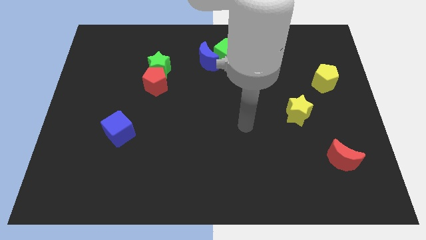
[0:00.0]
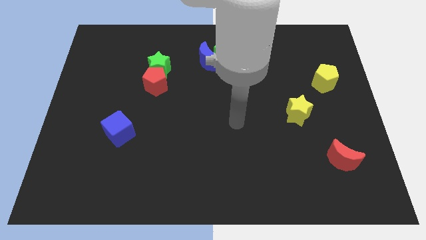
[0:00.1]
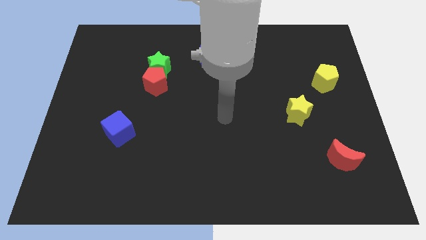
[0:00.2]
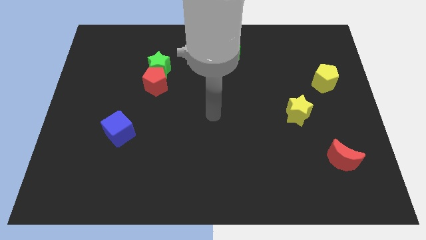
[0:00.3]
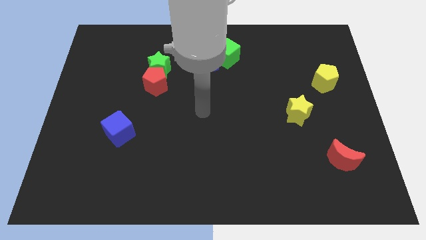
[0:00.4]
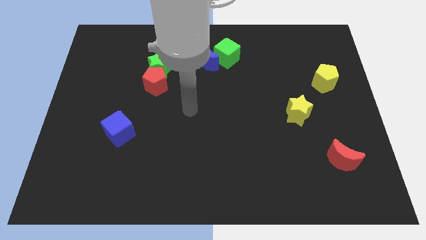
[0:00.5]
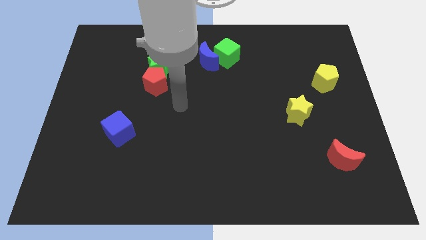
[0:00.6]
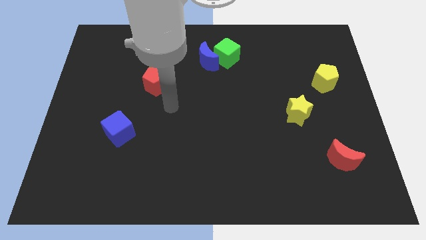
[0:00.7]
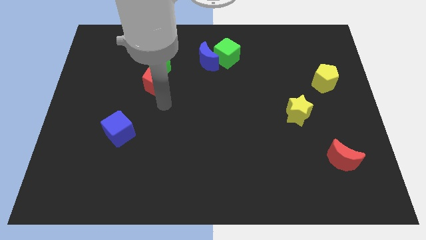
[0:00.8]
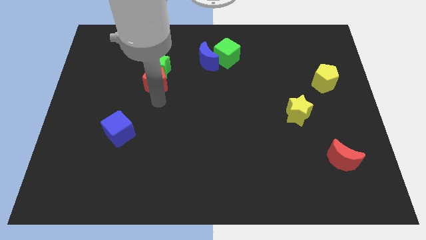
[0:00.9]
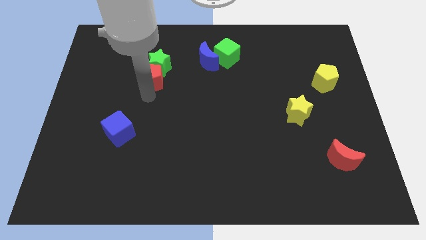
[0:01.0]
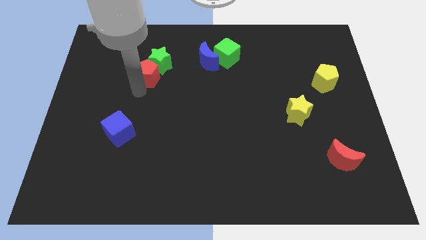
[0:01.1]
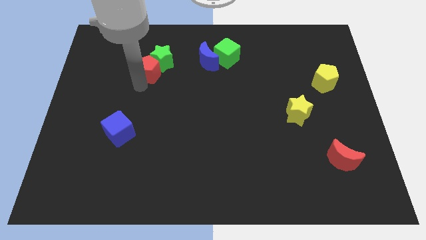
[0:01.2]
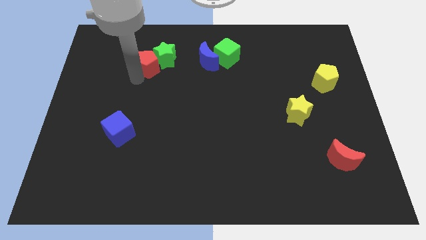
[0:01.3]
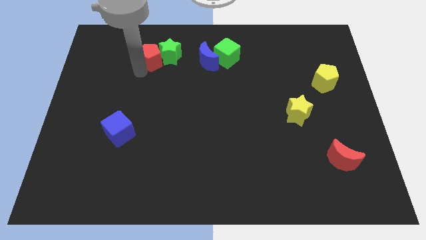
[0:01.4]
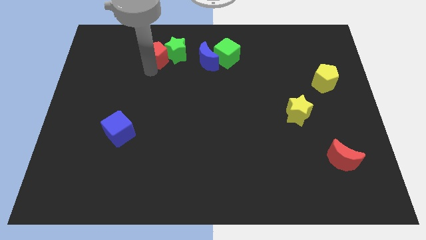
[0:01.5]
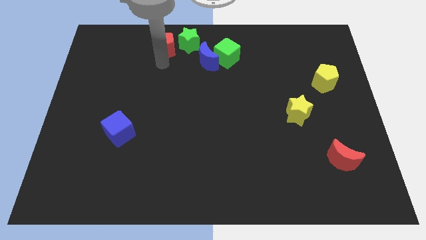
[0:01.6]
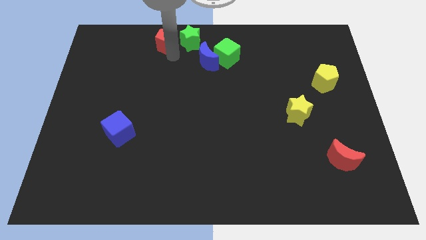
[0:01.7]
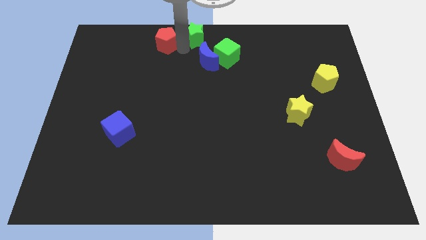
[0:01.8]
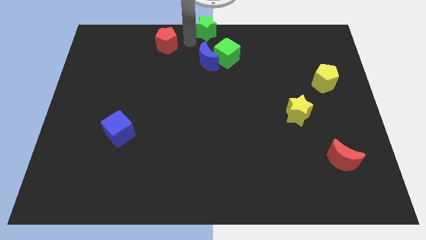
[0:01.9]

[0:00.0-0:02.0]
pull the red pentagon apart from the green star

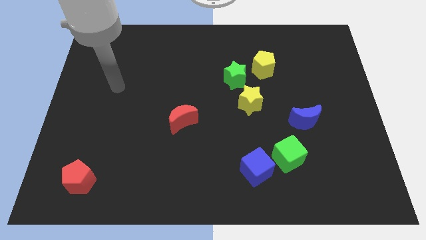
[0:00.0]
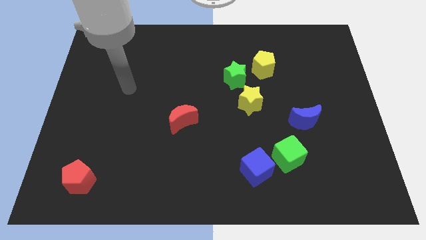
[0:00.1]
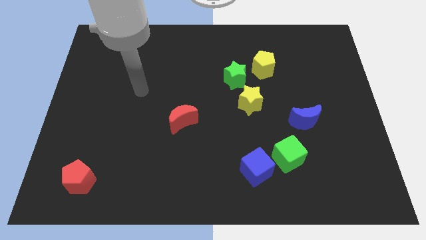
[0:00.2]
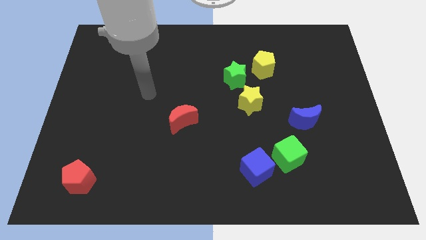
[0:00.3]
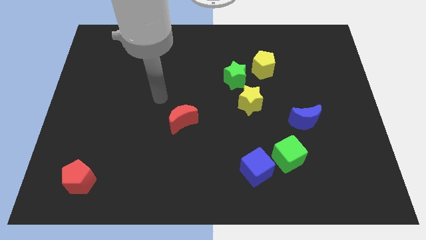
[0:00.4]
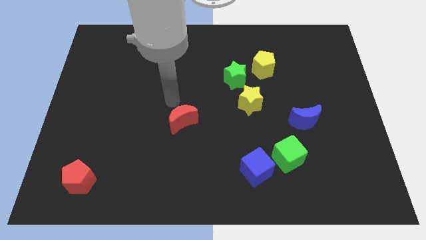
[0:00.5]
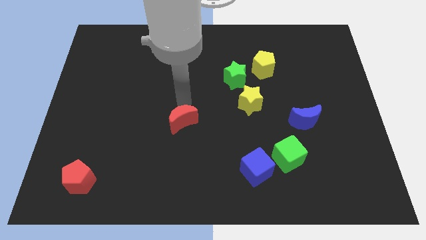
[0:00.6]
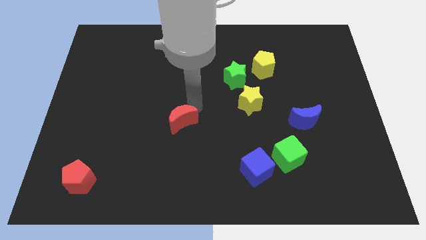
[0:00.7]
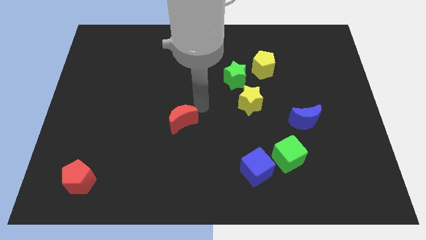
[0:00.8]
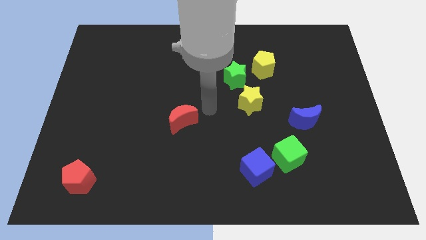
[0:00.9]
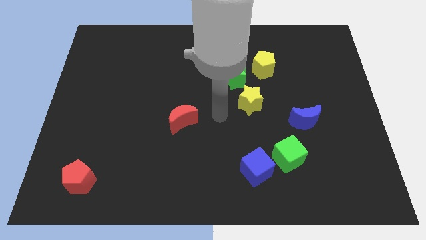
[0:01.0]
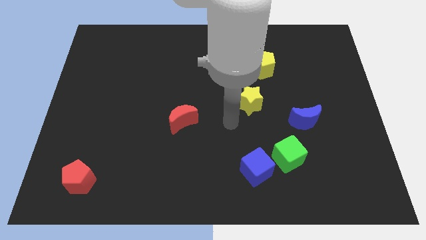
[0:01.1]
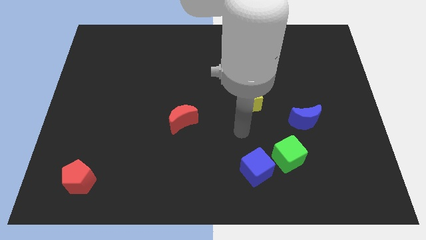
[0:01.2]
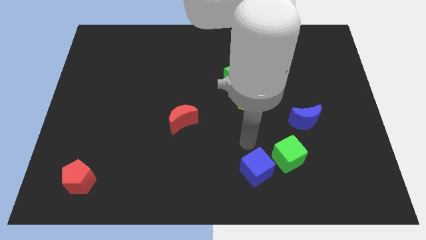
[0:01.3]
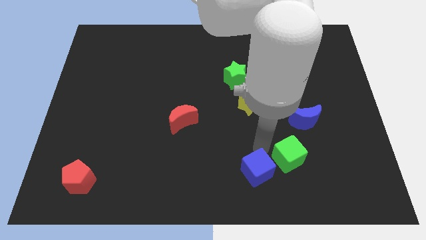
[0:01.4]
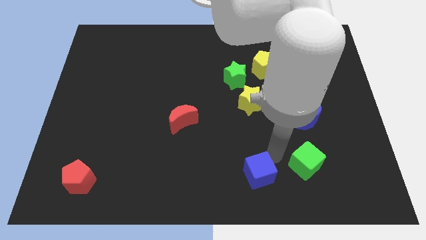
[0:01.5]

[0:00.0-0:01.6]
separate the blue cube from the green cube

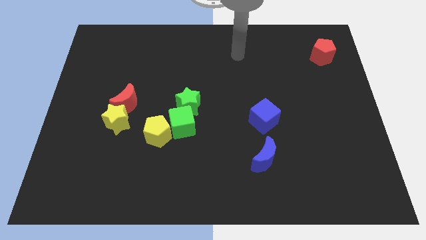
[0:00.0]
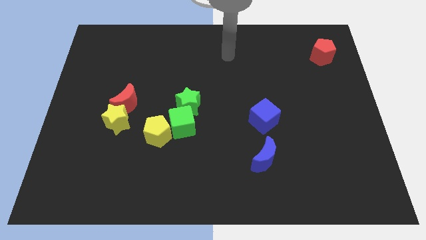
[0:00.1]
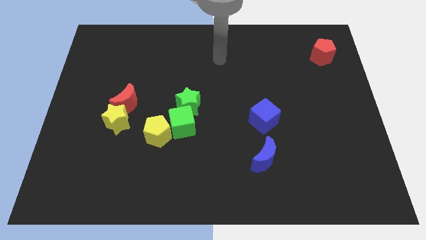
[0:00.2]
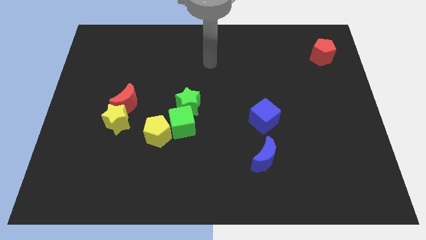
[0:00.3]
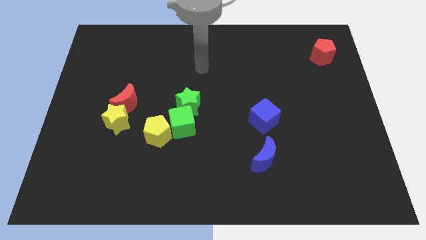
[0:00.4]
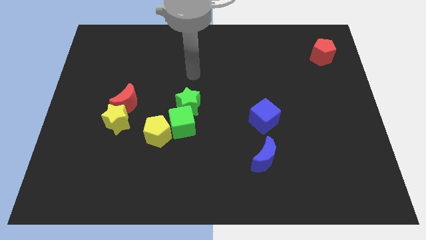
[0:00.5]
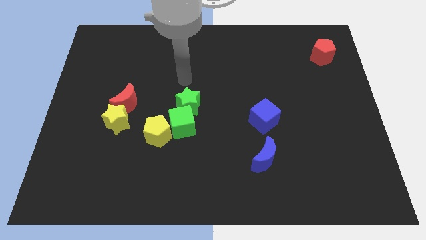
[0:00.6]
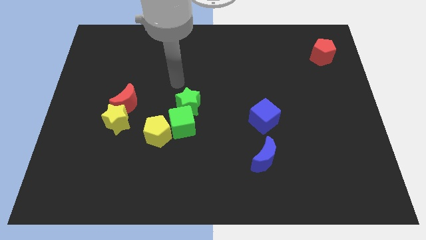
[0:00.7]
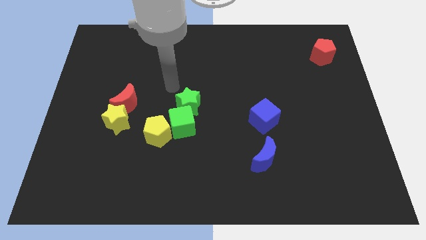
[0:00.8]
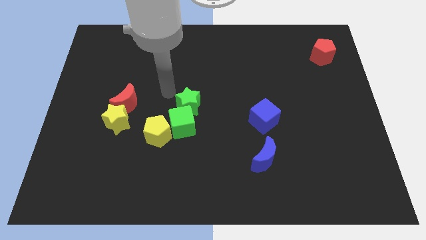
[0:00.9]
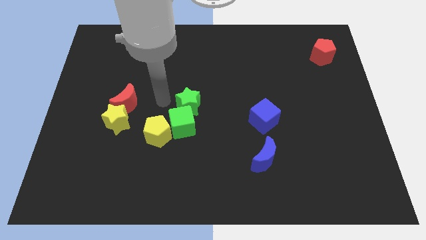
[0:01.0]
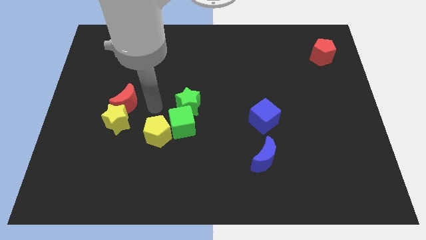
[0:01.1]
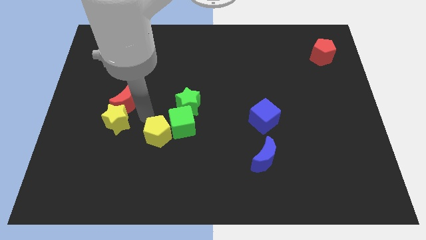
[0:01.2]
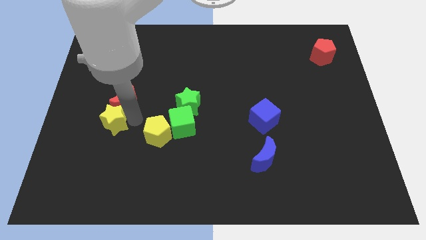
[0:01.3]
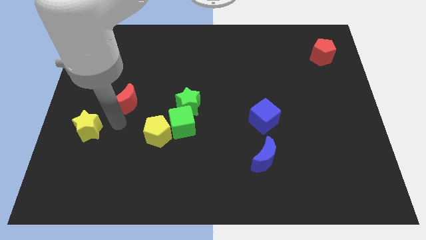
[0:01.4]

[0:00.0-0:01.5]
pull the red moon apart from the yellow star

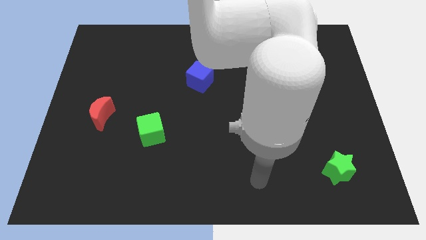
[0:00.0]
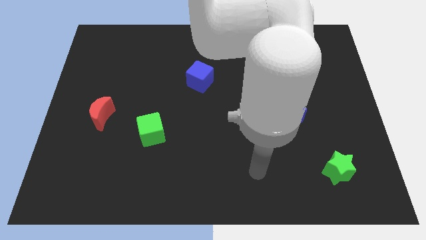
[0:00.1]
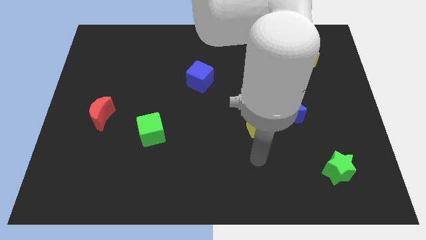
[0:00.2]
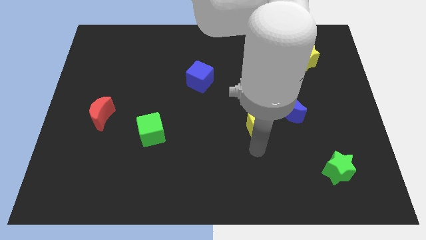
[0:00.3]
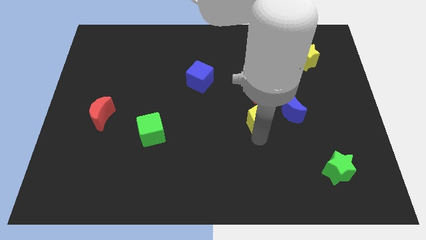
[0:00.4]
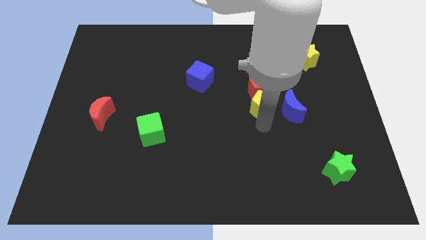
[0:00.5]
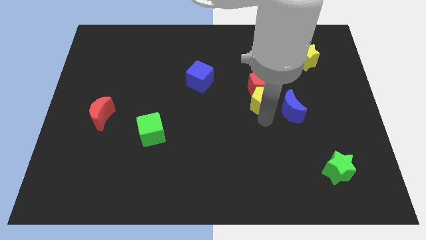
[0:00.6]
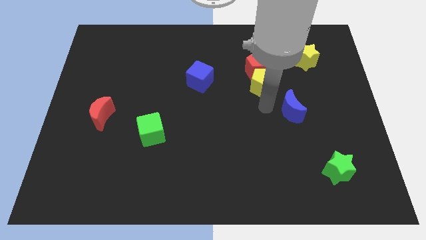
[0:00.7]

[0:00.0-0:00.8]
separate the blue moon from the red pentagon and yellow pentagon

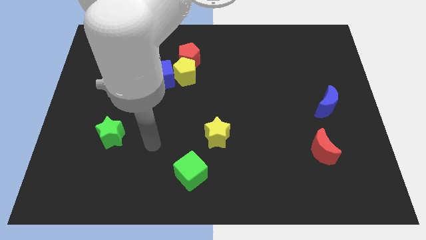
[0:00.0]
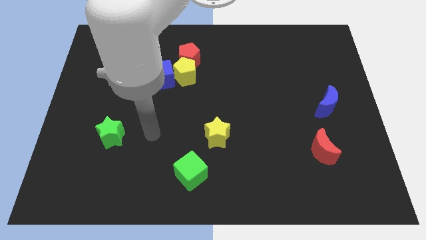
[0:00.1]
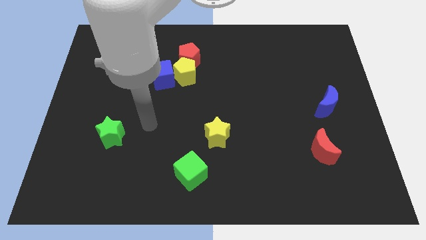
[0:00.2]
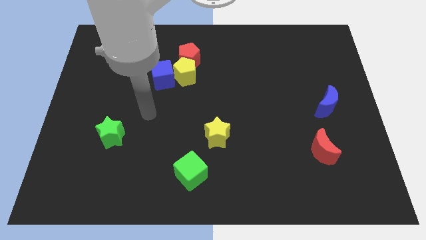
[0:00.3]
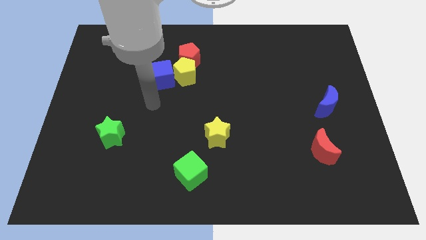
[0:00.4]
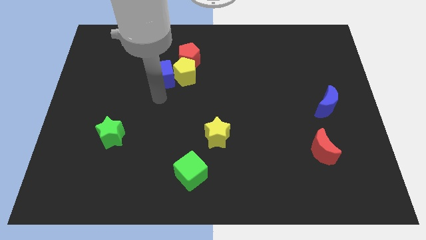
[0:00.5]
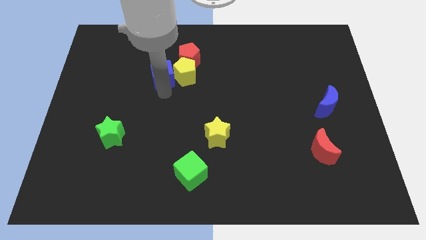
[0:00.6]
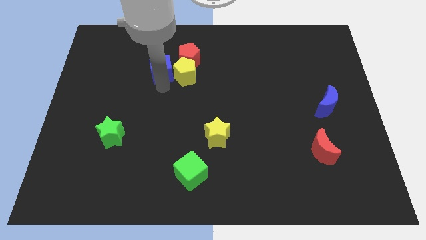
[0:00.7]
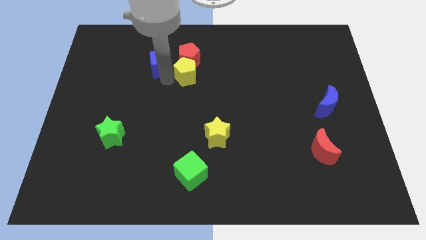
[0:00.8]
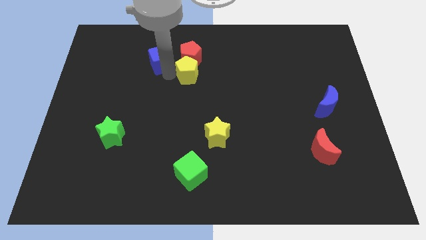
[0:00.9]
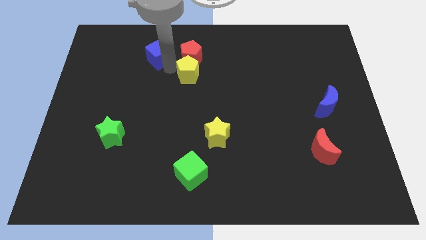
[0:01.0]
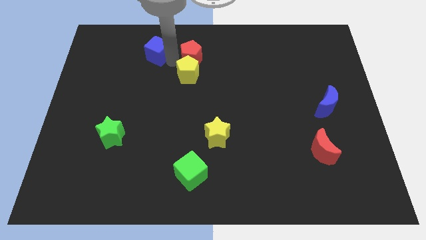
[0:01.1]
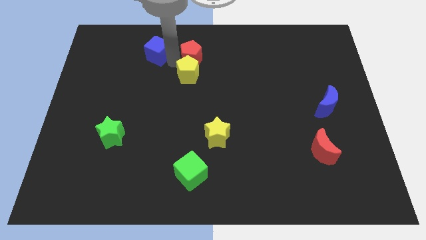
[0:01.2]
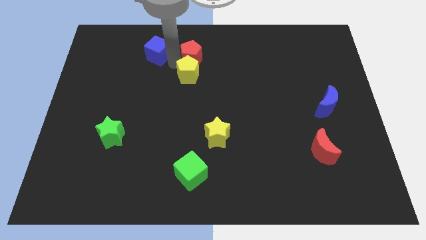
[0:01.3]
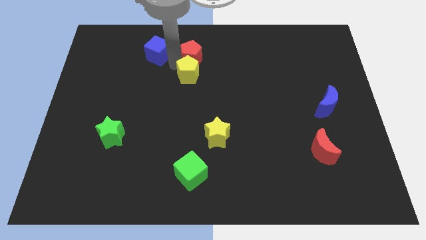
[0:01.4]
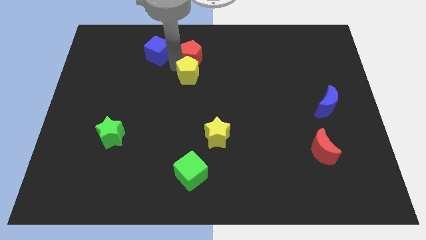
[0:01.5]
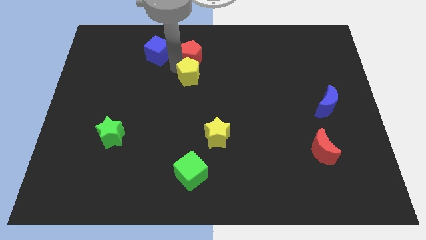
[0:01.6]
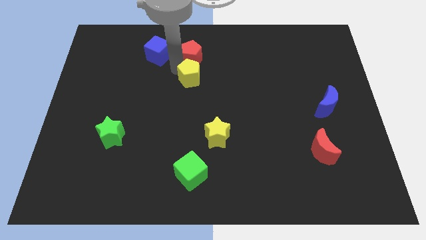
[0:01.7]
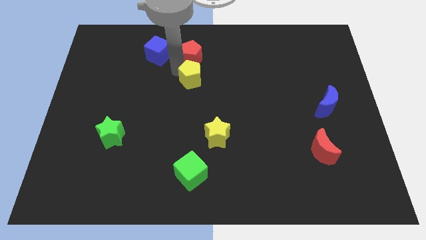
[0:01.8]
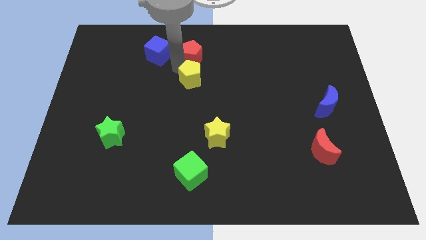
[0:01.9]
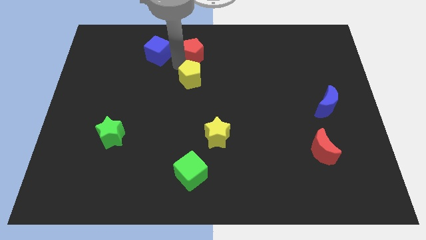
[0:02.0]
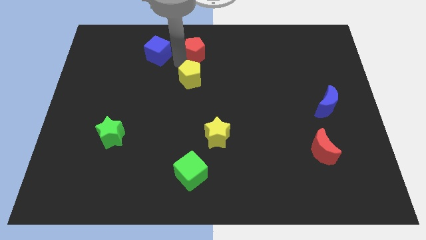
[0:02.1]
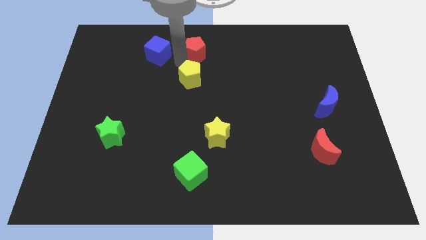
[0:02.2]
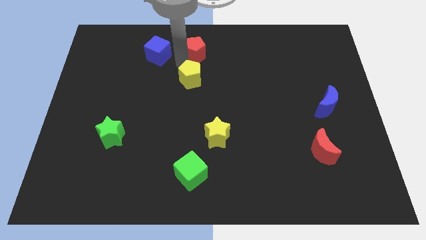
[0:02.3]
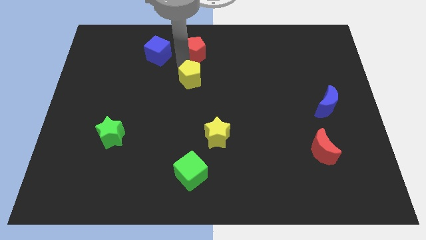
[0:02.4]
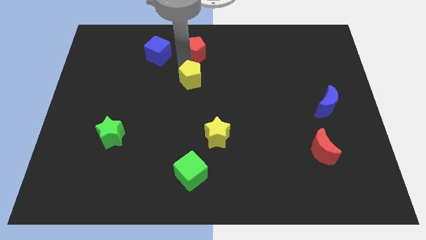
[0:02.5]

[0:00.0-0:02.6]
pull the yellow pentagon apart from the red pentagon and blue cube

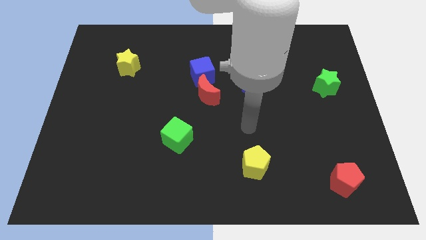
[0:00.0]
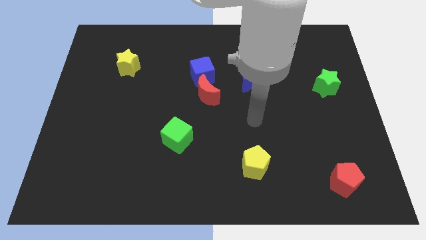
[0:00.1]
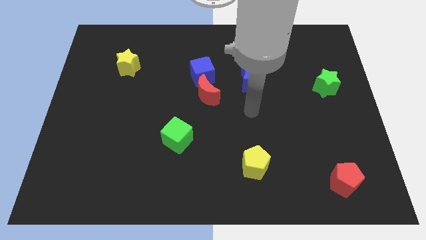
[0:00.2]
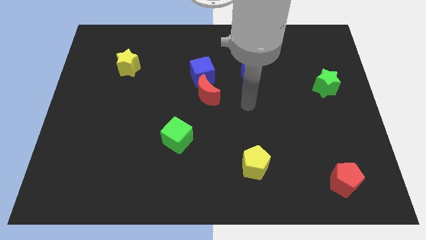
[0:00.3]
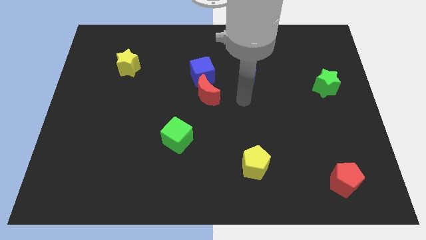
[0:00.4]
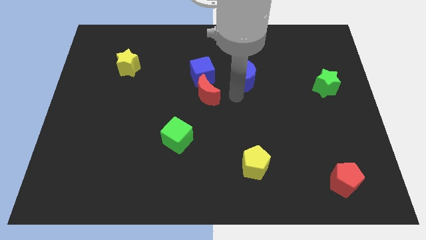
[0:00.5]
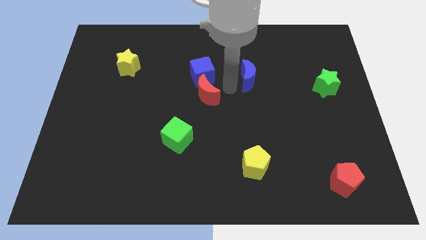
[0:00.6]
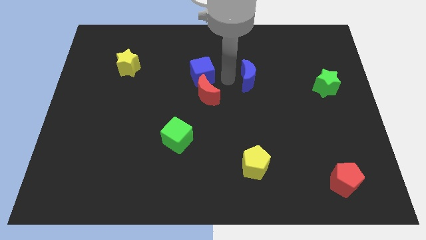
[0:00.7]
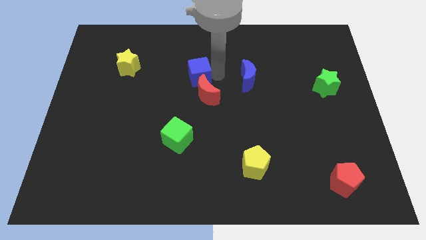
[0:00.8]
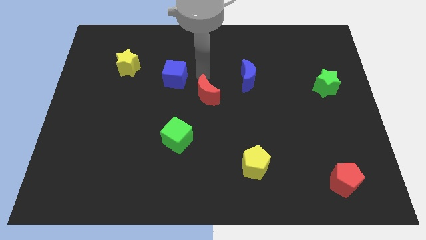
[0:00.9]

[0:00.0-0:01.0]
move the red moon away from the blue cube
